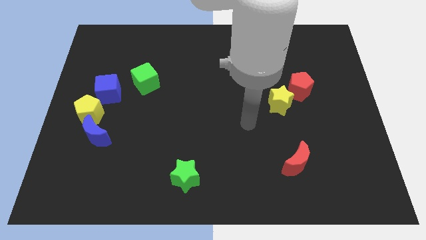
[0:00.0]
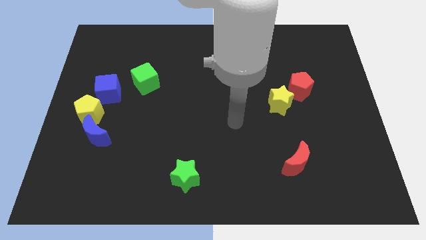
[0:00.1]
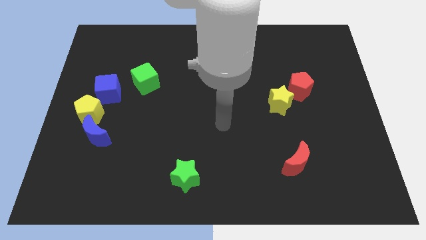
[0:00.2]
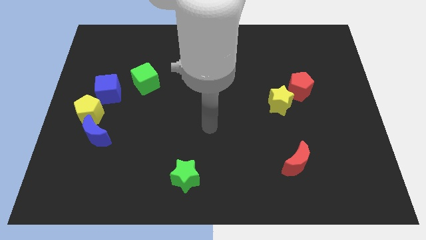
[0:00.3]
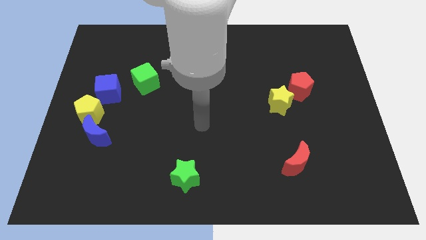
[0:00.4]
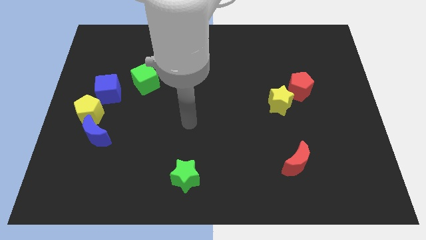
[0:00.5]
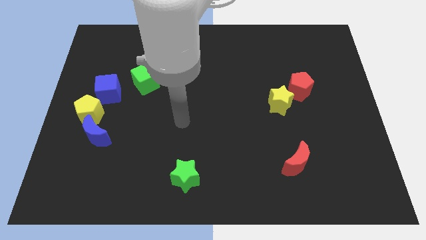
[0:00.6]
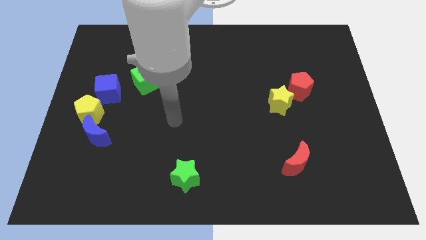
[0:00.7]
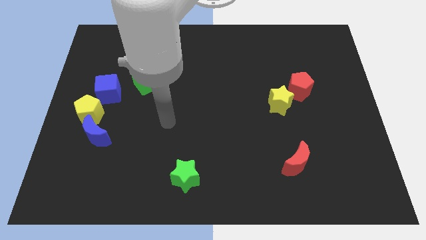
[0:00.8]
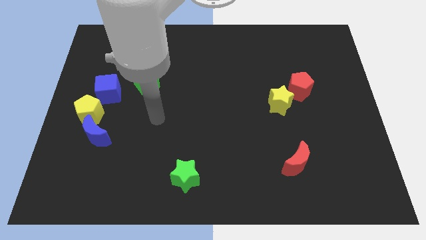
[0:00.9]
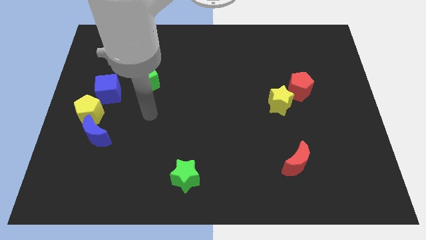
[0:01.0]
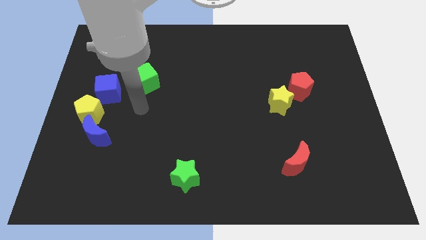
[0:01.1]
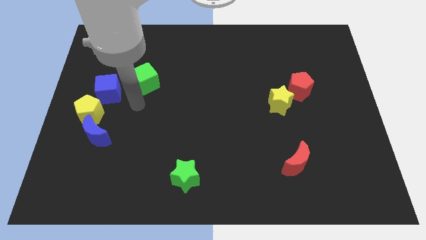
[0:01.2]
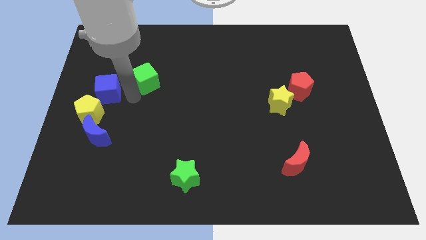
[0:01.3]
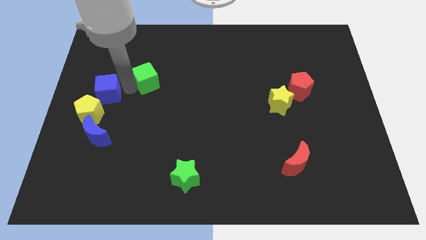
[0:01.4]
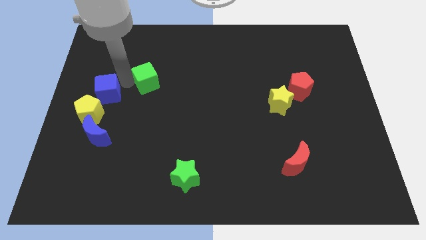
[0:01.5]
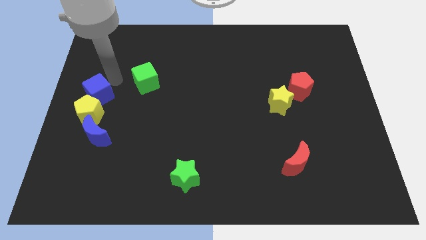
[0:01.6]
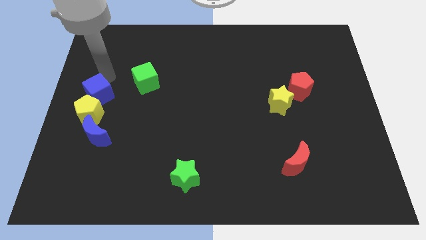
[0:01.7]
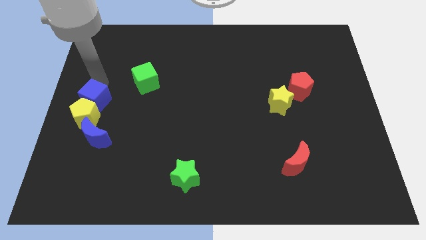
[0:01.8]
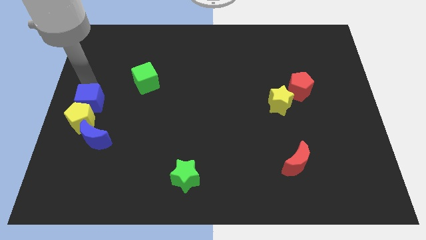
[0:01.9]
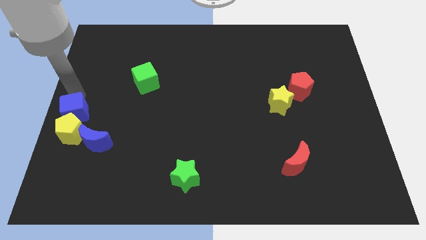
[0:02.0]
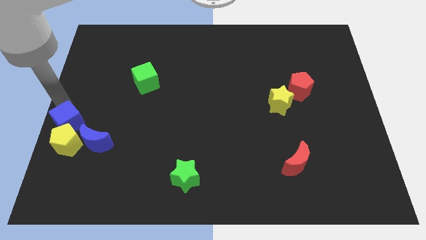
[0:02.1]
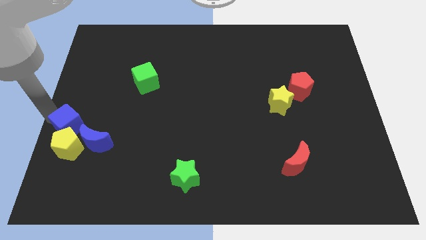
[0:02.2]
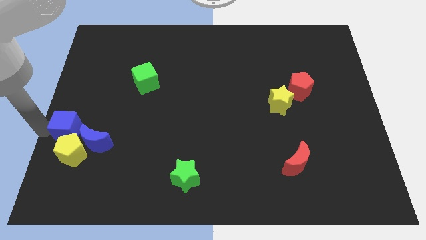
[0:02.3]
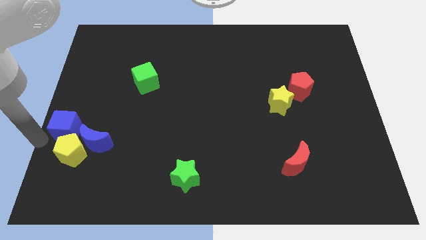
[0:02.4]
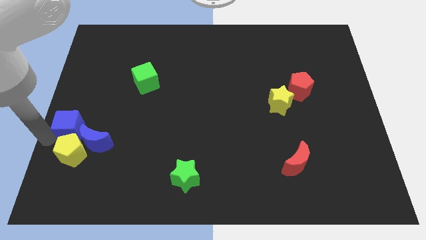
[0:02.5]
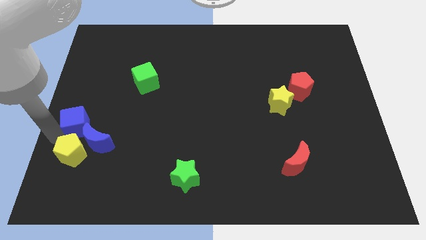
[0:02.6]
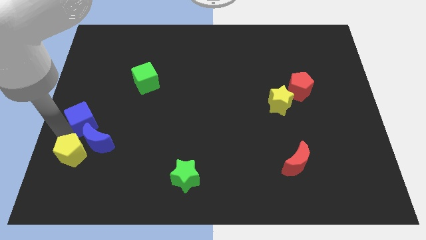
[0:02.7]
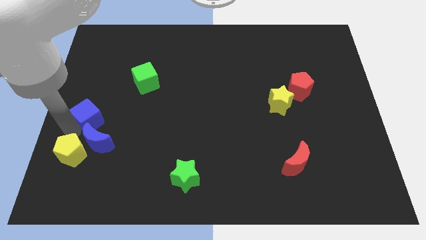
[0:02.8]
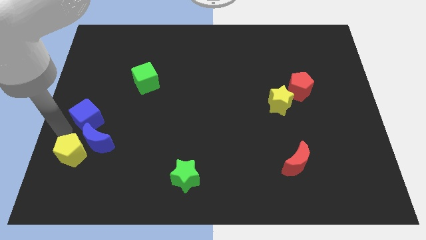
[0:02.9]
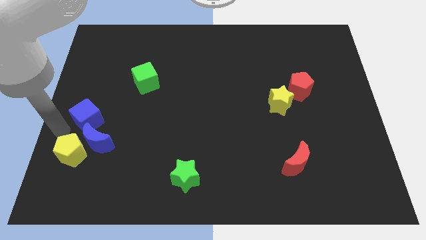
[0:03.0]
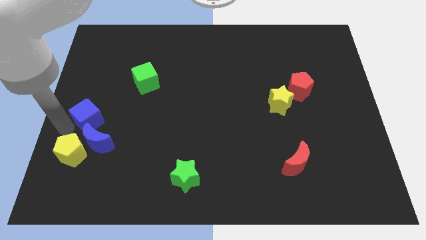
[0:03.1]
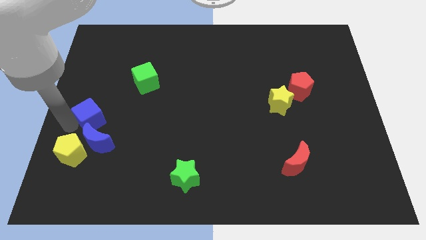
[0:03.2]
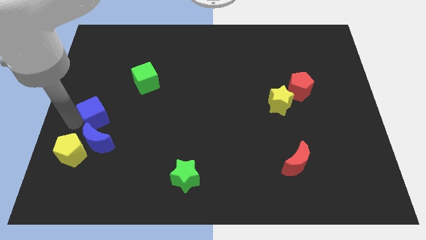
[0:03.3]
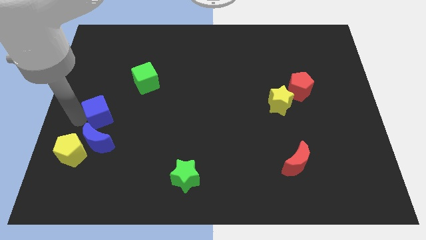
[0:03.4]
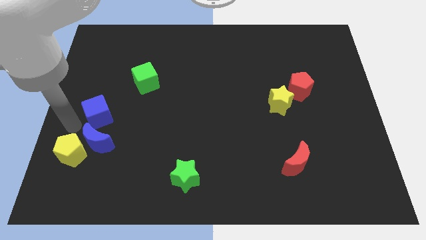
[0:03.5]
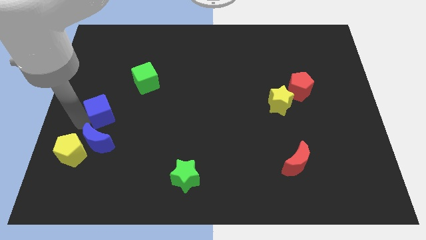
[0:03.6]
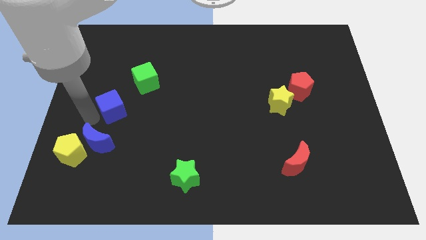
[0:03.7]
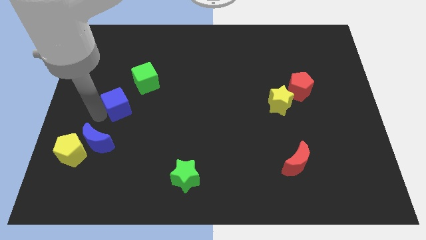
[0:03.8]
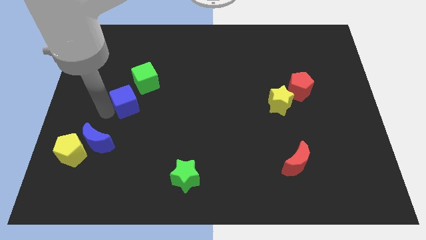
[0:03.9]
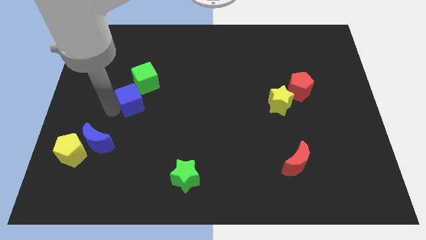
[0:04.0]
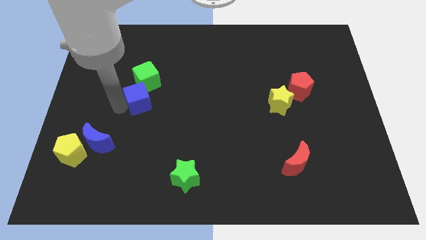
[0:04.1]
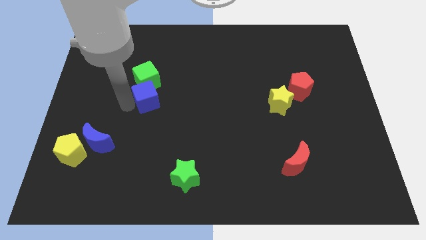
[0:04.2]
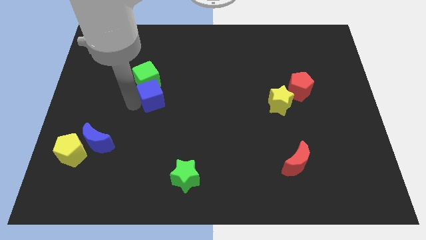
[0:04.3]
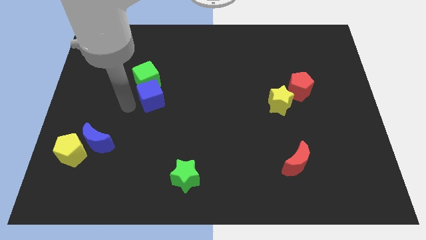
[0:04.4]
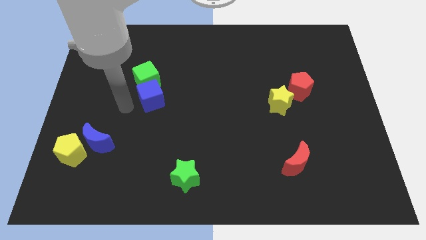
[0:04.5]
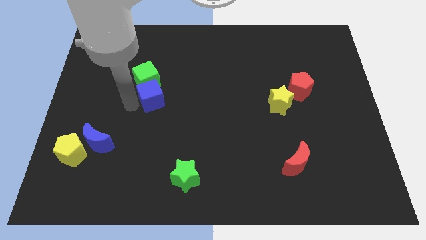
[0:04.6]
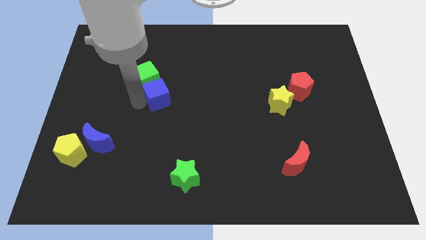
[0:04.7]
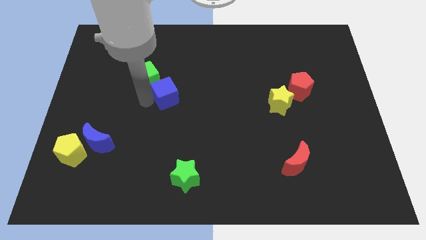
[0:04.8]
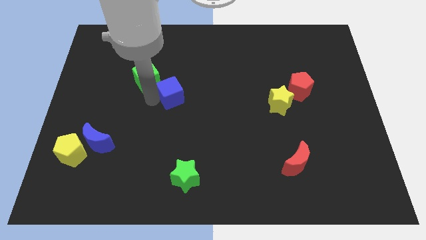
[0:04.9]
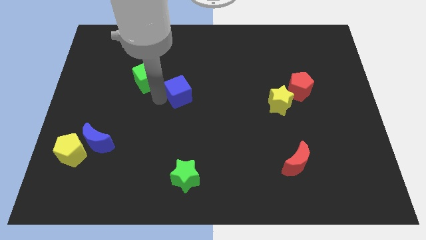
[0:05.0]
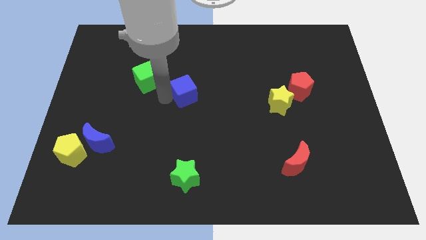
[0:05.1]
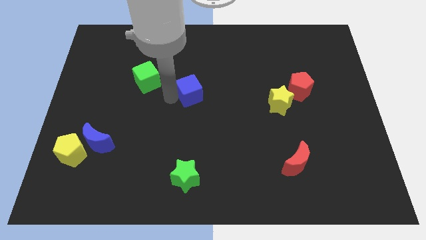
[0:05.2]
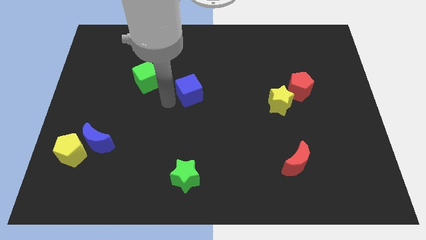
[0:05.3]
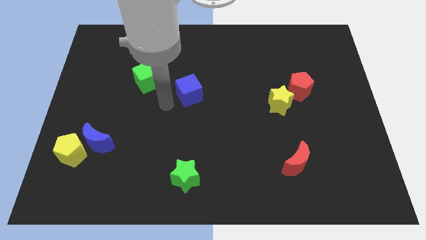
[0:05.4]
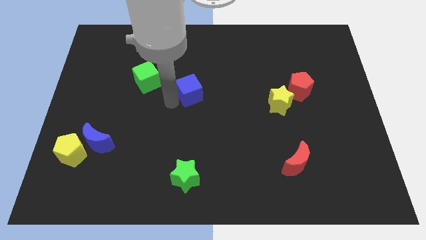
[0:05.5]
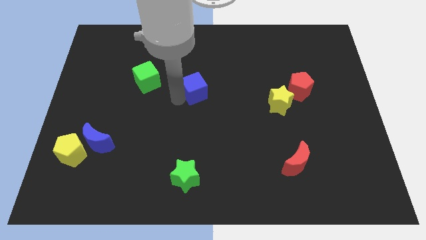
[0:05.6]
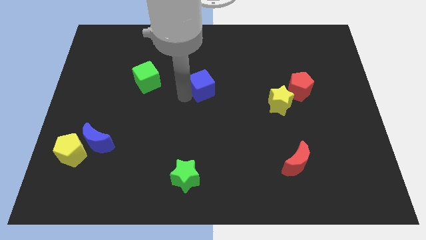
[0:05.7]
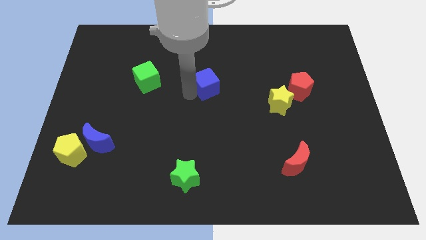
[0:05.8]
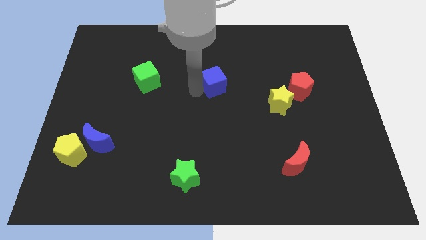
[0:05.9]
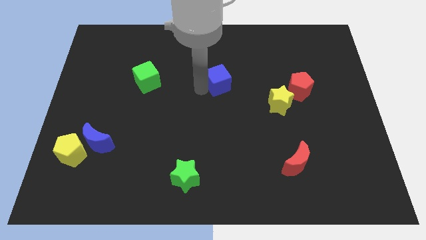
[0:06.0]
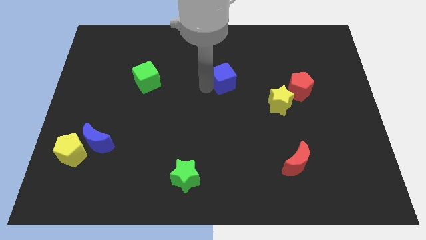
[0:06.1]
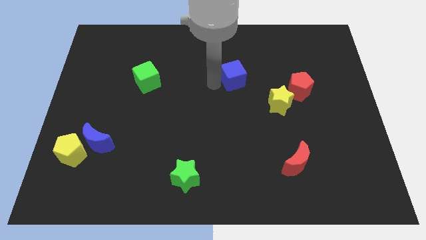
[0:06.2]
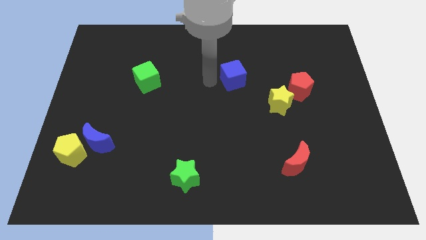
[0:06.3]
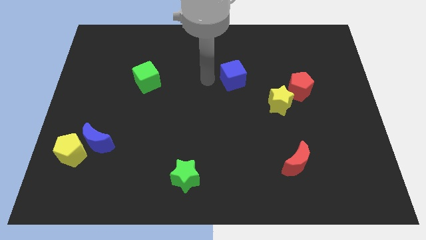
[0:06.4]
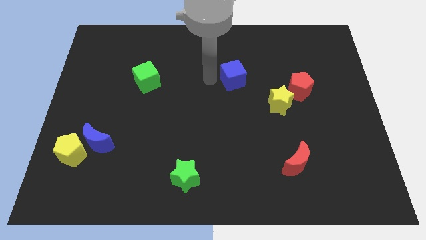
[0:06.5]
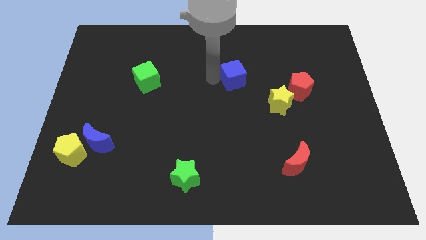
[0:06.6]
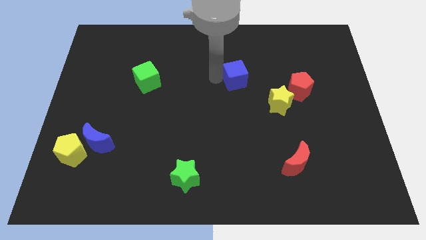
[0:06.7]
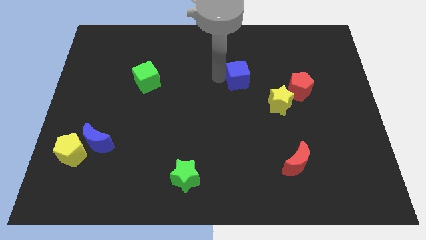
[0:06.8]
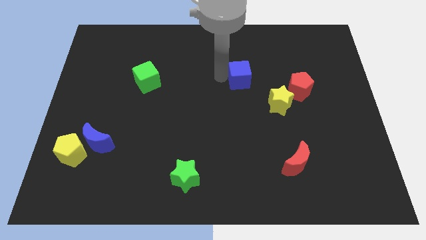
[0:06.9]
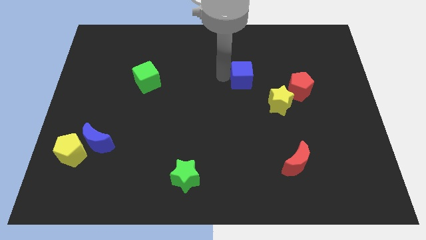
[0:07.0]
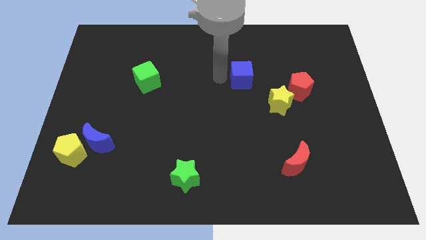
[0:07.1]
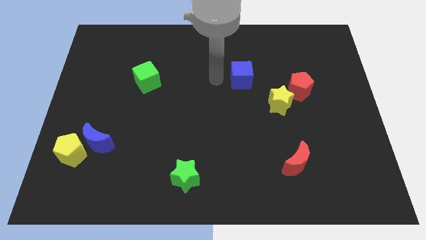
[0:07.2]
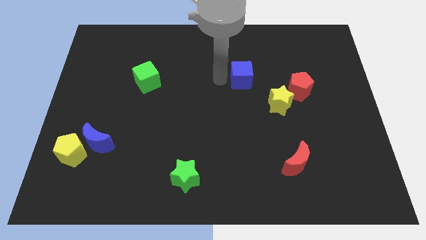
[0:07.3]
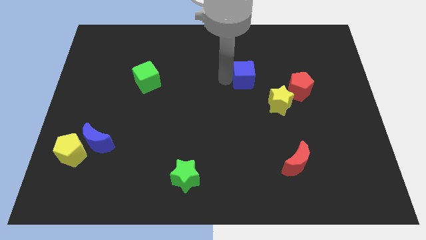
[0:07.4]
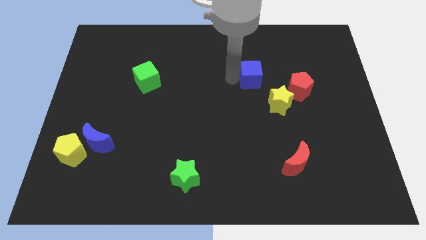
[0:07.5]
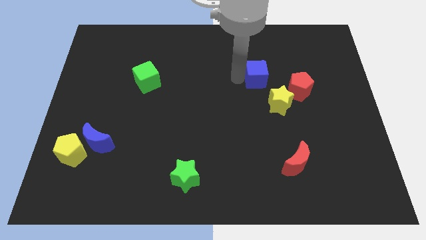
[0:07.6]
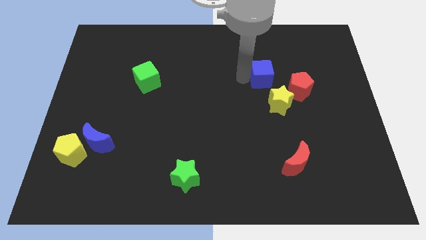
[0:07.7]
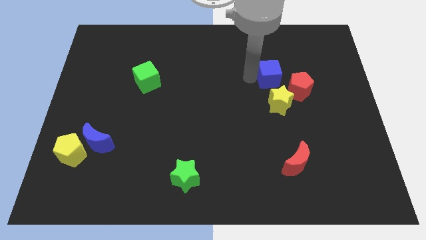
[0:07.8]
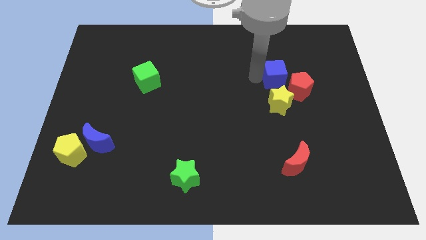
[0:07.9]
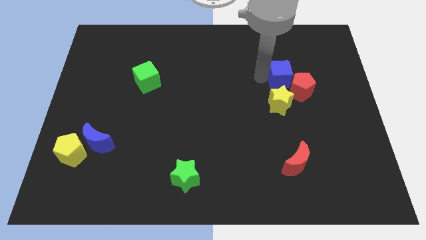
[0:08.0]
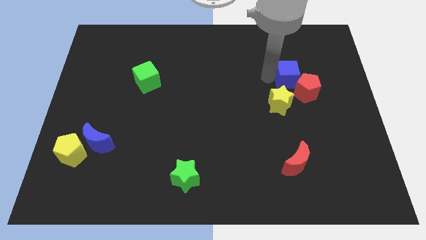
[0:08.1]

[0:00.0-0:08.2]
push the blue cube to the top right side of the yellow star
